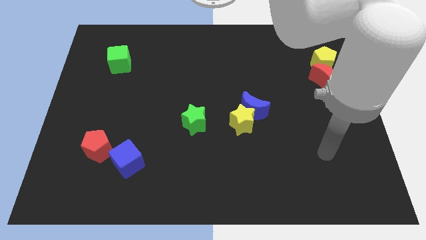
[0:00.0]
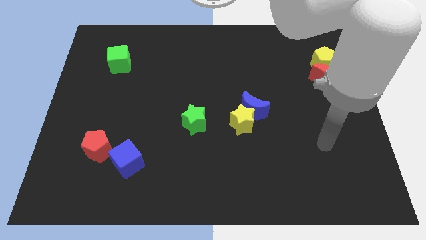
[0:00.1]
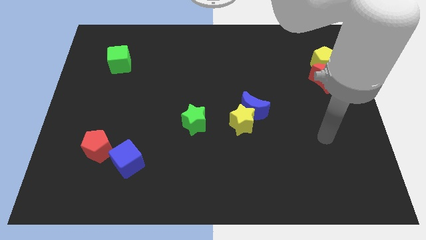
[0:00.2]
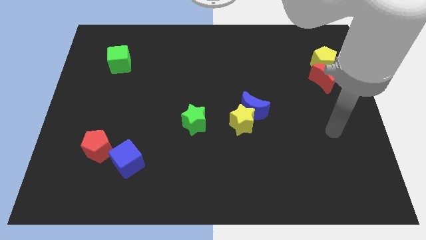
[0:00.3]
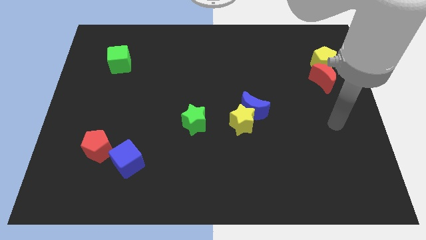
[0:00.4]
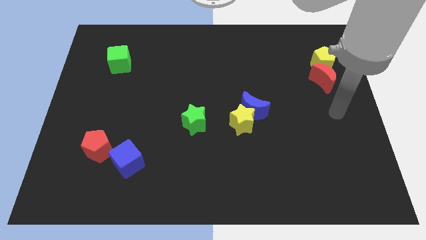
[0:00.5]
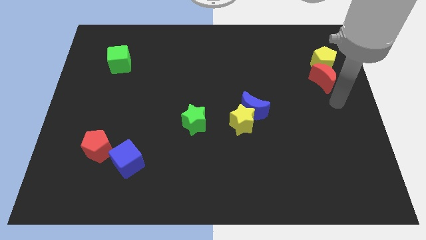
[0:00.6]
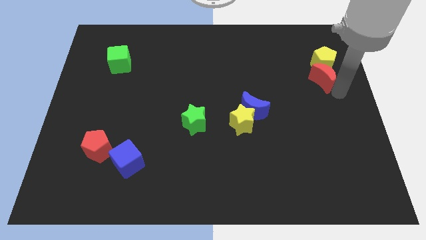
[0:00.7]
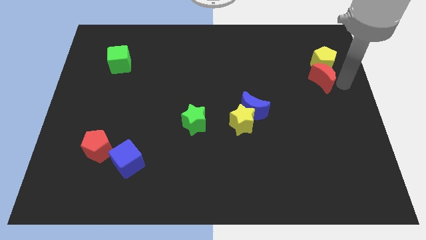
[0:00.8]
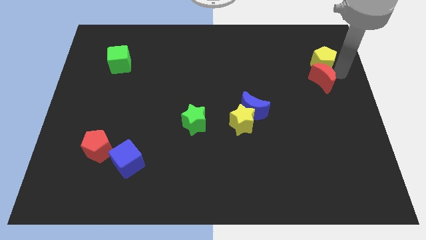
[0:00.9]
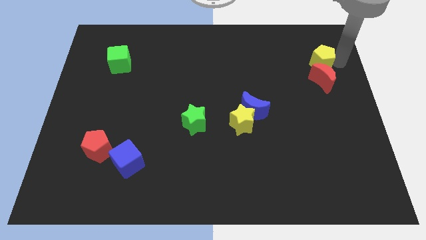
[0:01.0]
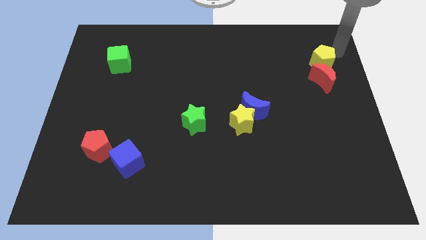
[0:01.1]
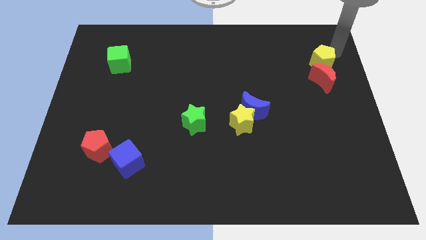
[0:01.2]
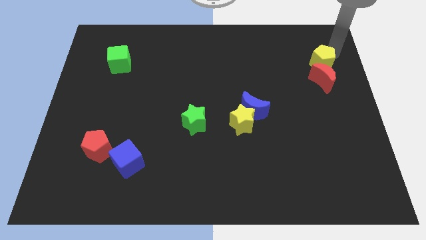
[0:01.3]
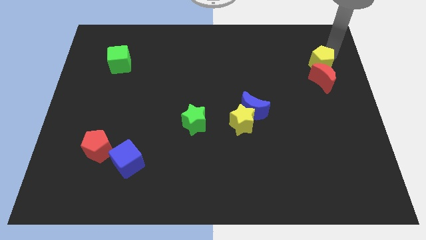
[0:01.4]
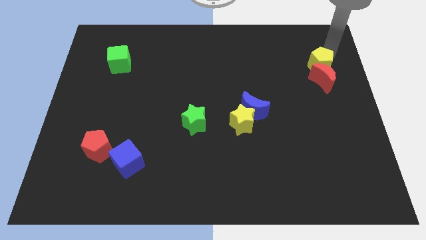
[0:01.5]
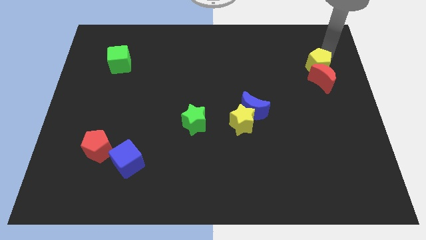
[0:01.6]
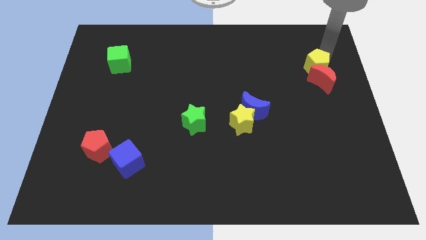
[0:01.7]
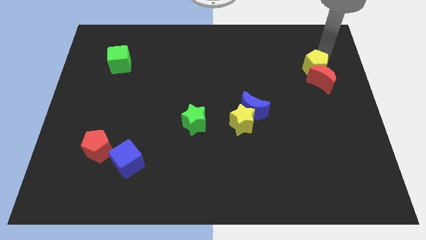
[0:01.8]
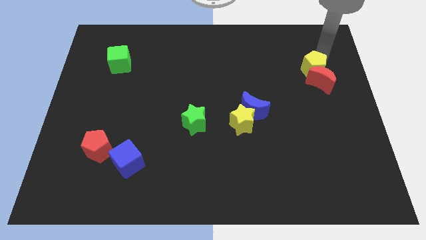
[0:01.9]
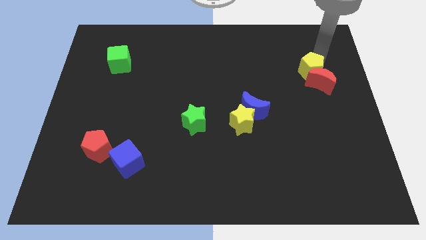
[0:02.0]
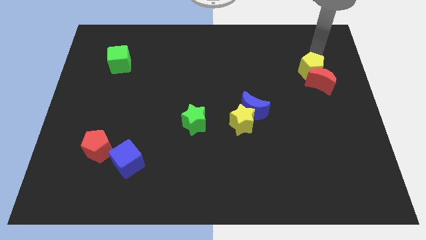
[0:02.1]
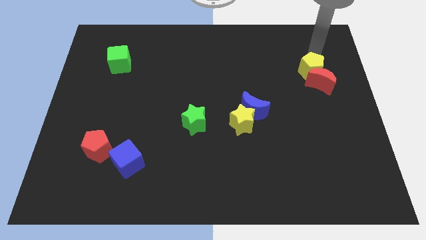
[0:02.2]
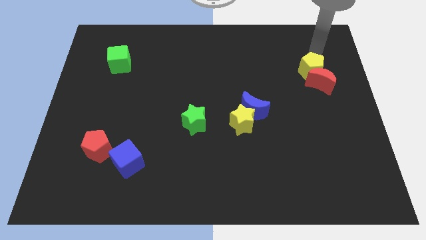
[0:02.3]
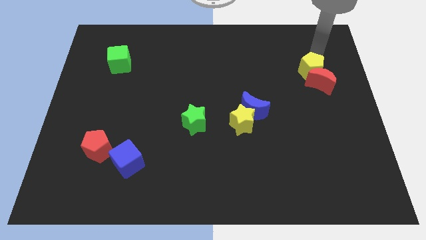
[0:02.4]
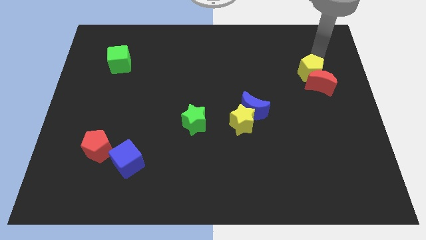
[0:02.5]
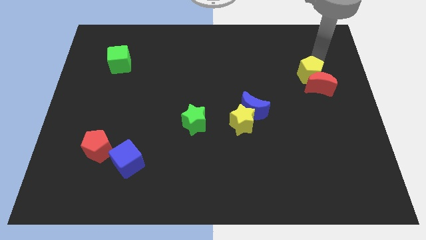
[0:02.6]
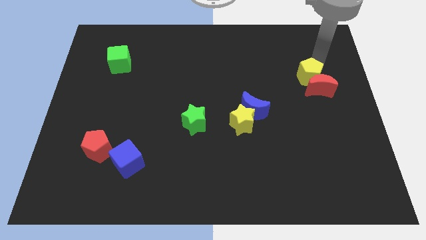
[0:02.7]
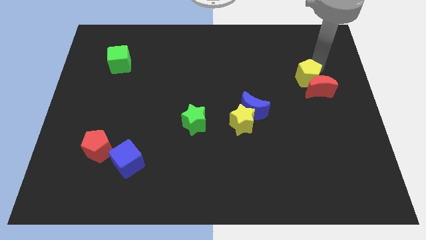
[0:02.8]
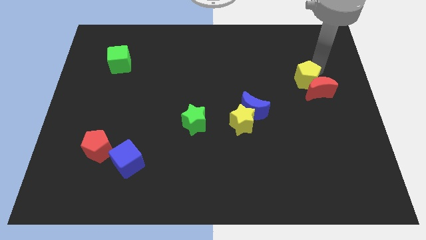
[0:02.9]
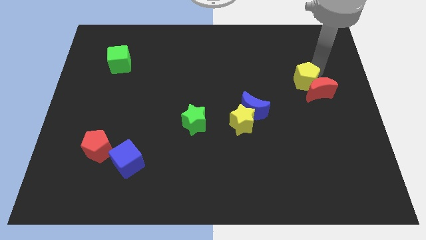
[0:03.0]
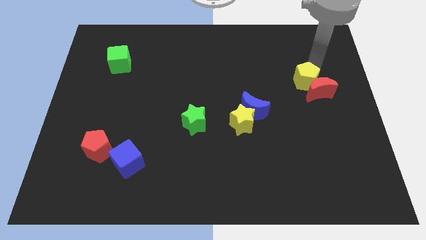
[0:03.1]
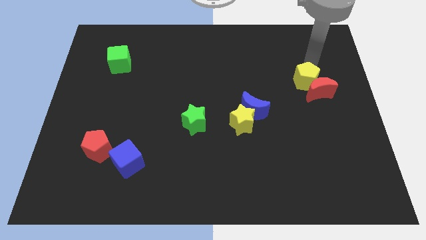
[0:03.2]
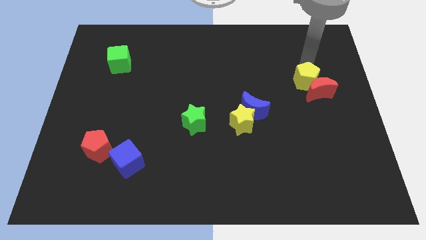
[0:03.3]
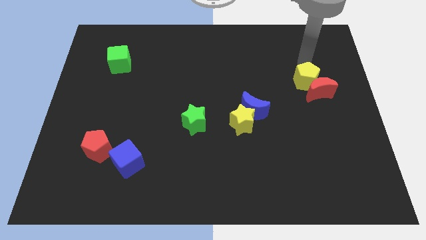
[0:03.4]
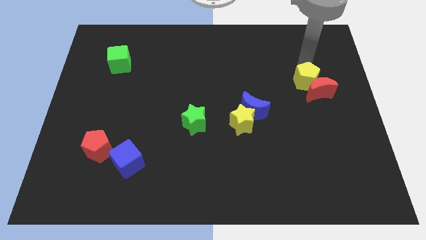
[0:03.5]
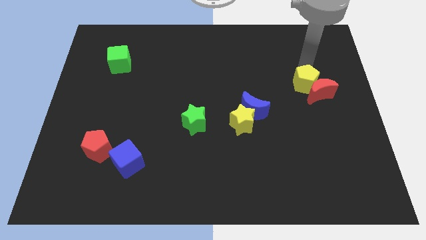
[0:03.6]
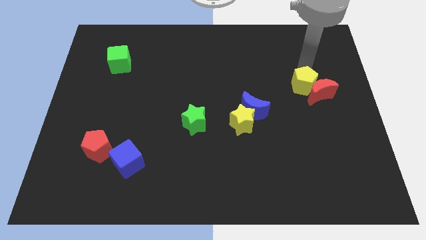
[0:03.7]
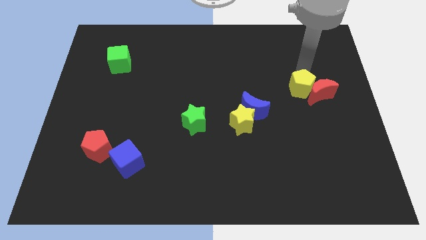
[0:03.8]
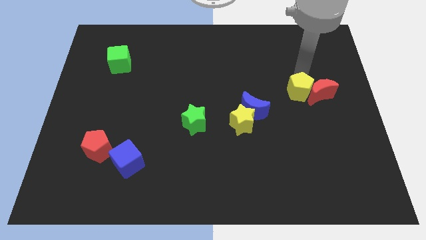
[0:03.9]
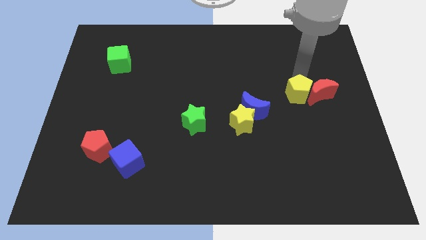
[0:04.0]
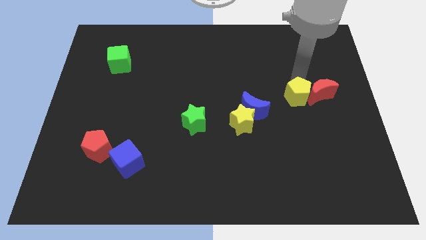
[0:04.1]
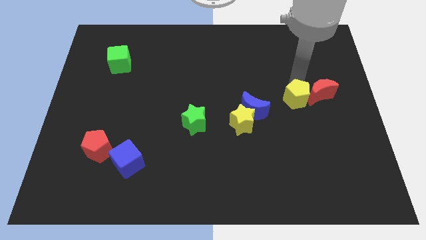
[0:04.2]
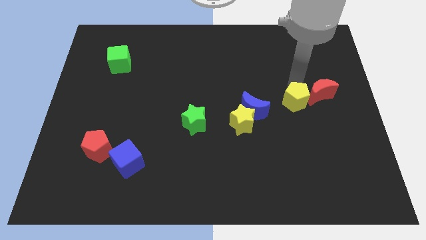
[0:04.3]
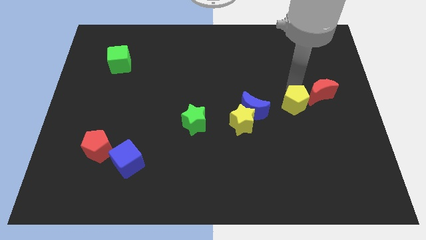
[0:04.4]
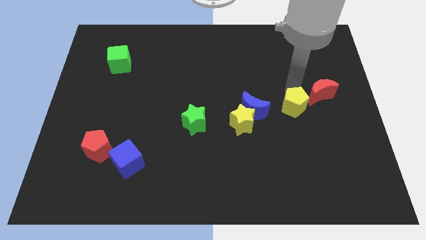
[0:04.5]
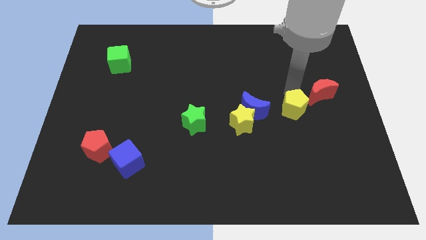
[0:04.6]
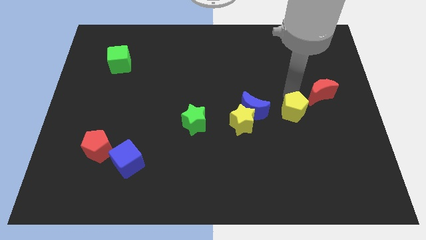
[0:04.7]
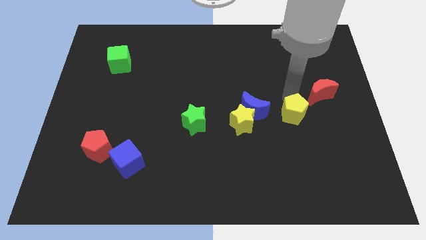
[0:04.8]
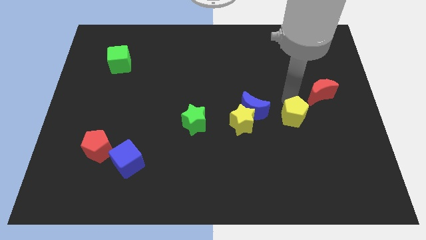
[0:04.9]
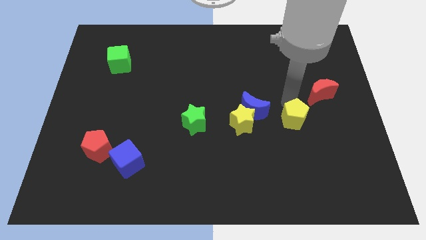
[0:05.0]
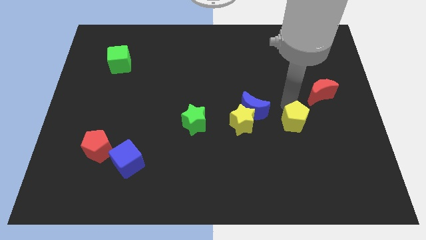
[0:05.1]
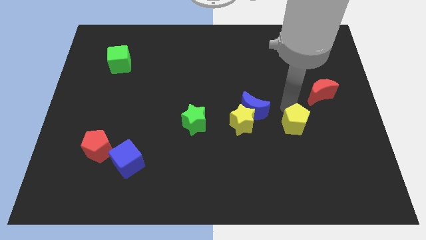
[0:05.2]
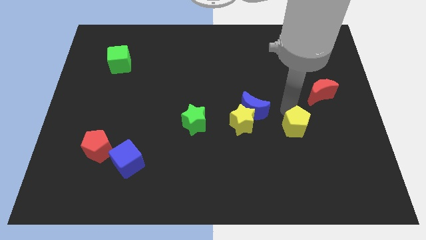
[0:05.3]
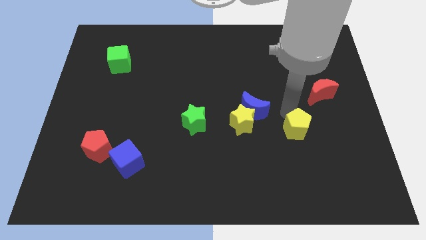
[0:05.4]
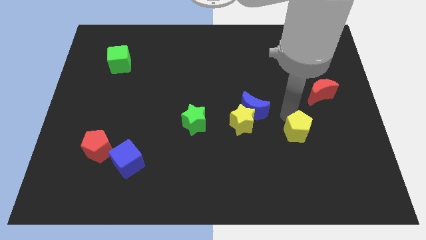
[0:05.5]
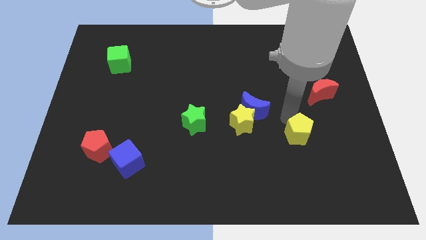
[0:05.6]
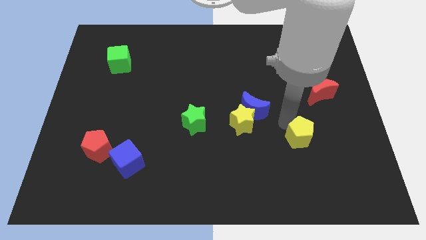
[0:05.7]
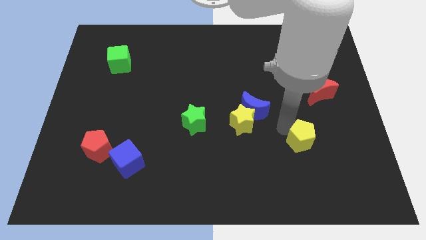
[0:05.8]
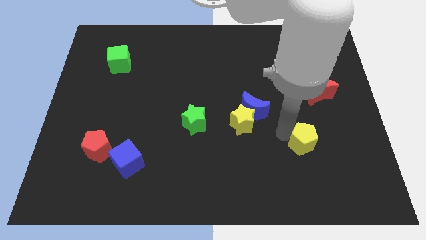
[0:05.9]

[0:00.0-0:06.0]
push the yellow pentagon down

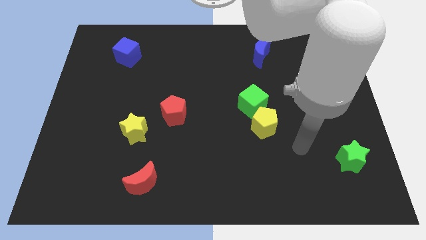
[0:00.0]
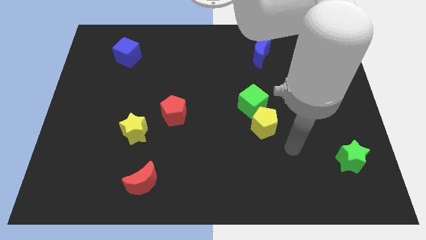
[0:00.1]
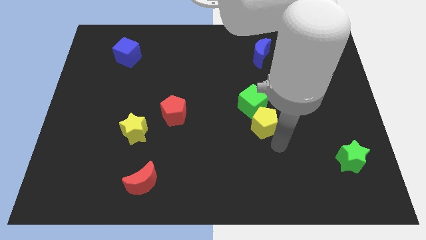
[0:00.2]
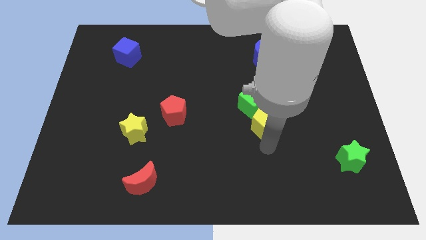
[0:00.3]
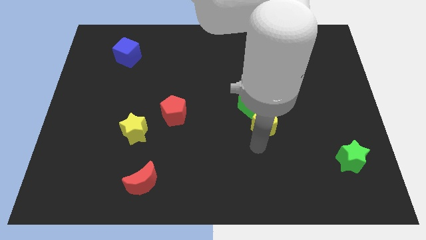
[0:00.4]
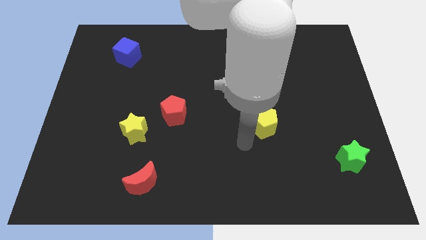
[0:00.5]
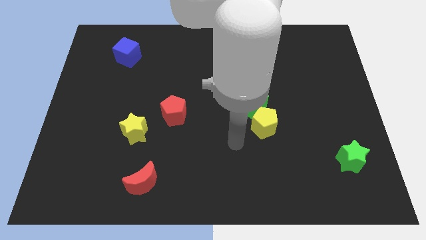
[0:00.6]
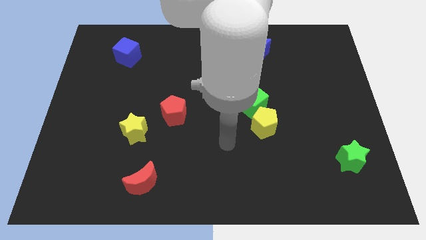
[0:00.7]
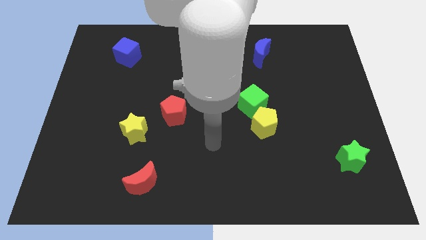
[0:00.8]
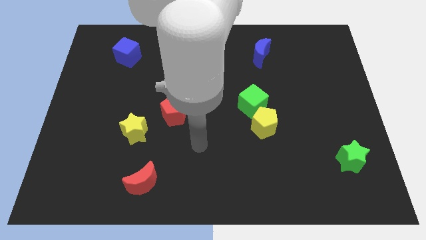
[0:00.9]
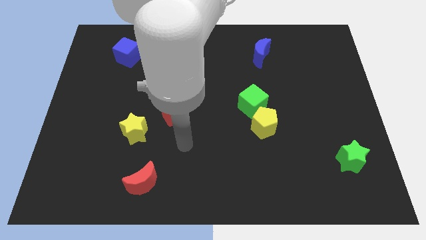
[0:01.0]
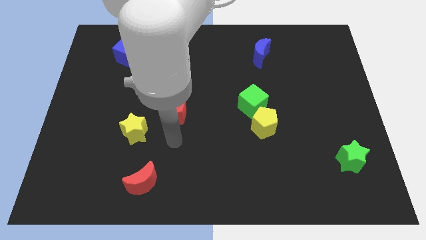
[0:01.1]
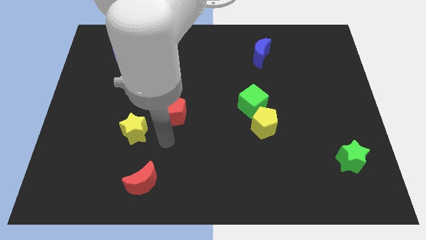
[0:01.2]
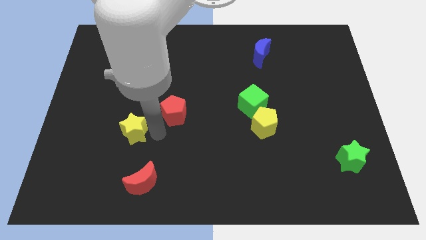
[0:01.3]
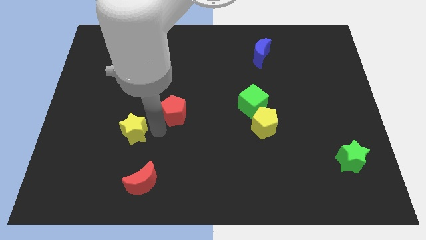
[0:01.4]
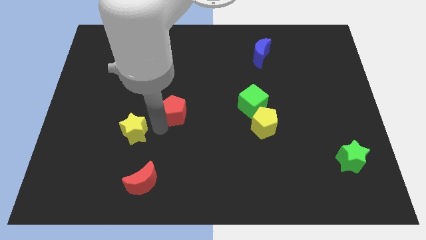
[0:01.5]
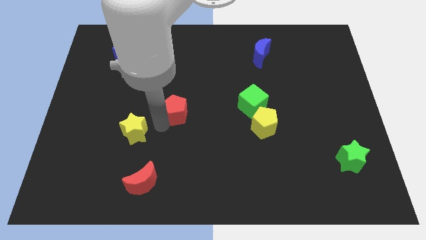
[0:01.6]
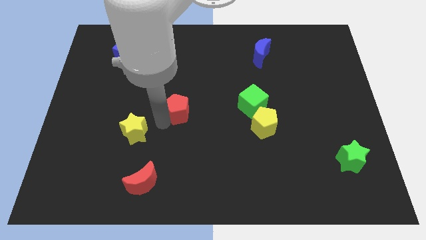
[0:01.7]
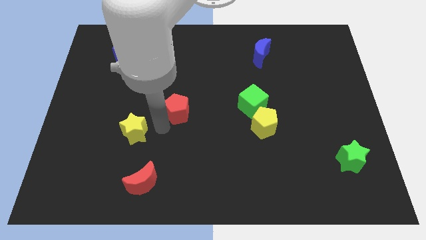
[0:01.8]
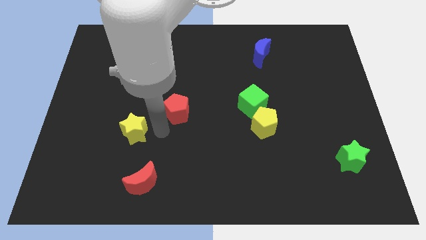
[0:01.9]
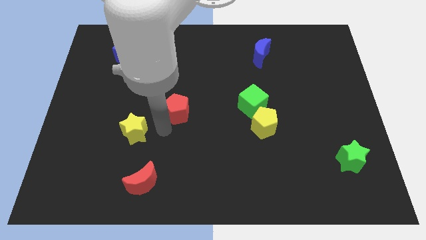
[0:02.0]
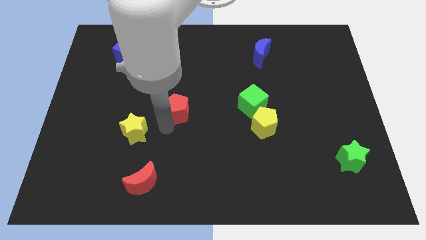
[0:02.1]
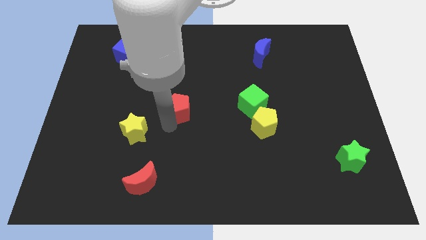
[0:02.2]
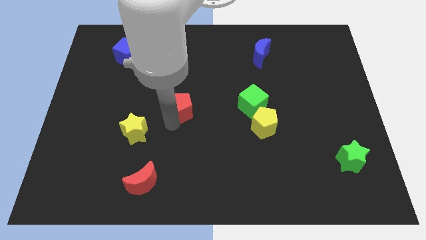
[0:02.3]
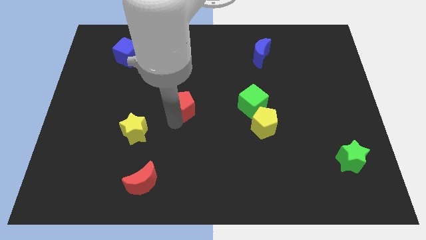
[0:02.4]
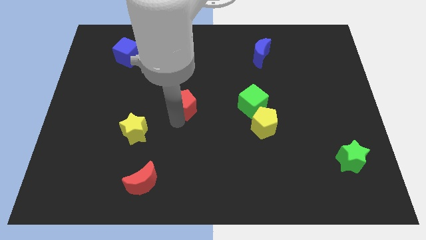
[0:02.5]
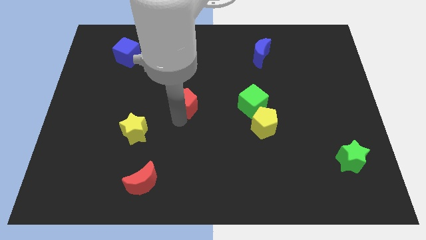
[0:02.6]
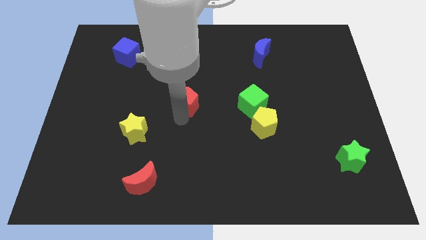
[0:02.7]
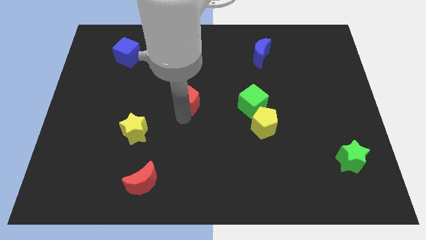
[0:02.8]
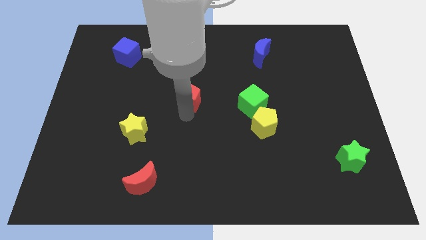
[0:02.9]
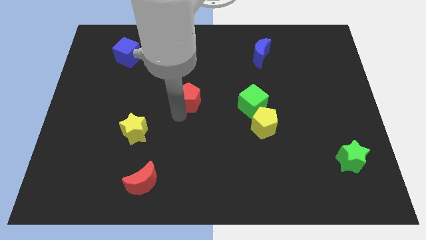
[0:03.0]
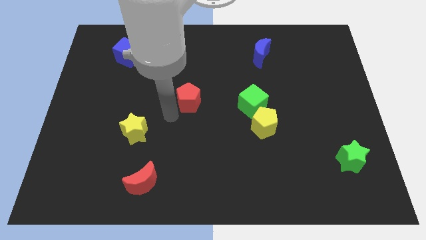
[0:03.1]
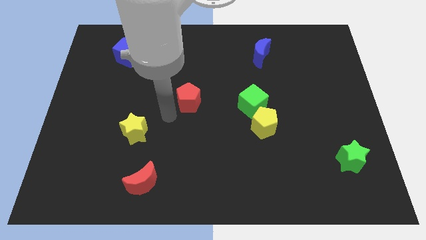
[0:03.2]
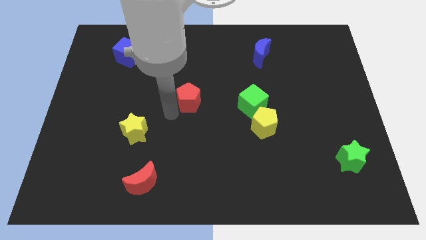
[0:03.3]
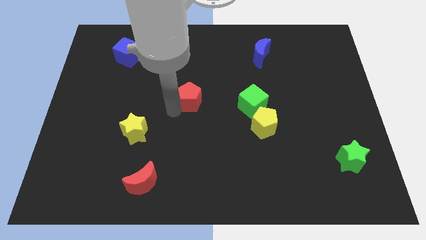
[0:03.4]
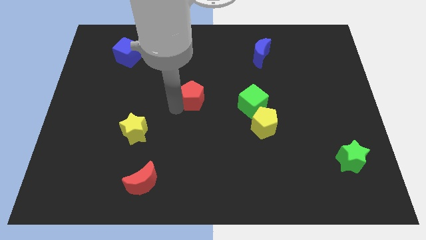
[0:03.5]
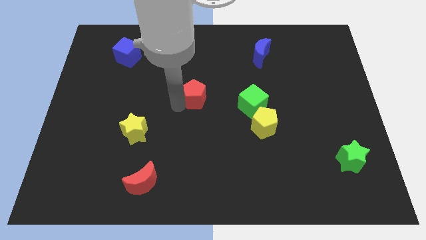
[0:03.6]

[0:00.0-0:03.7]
move the red pentagon a little bit up and to the right
